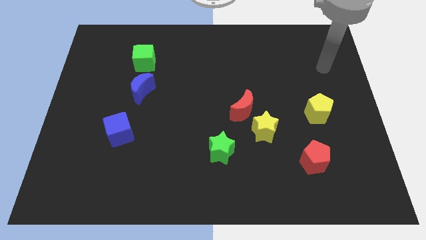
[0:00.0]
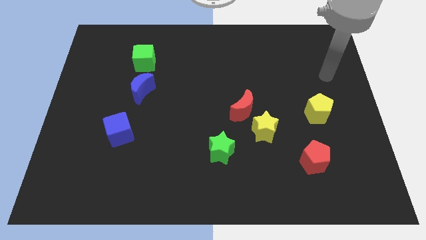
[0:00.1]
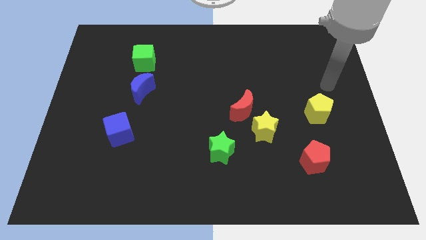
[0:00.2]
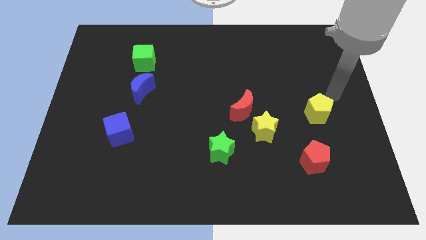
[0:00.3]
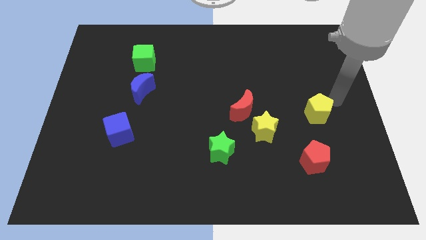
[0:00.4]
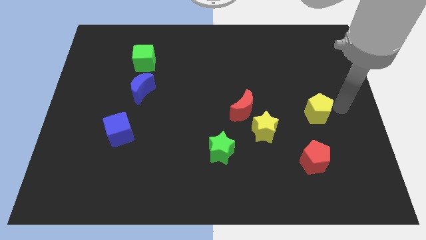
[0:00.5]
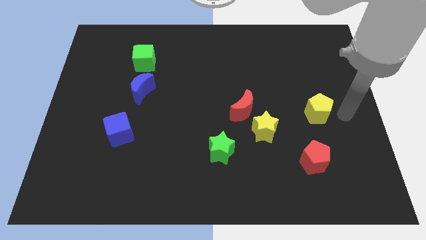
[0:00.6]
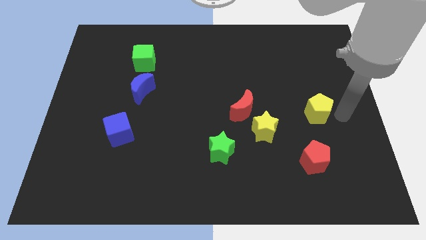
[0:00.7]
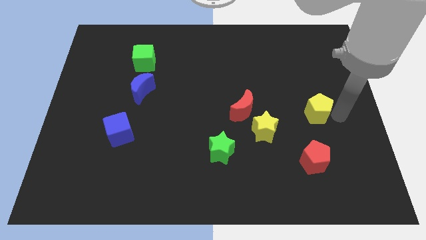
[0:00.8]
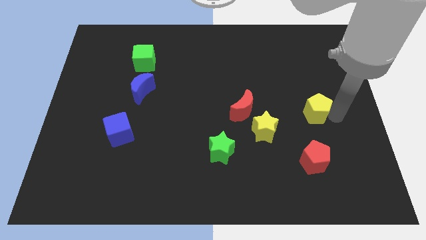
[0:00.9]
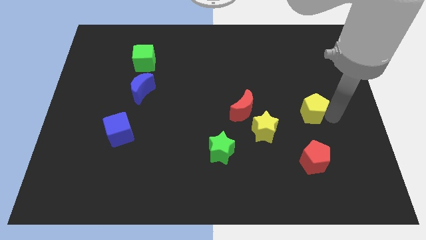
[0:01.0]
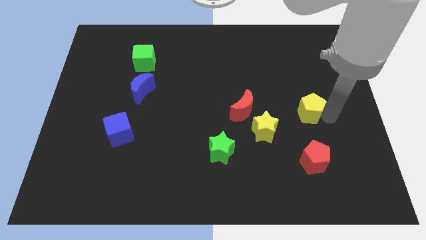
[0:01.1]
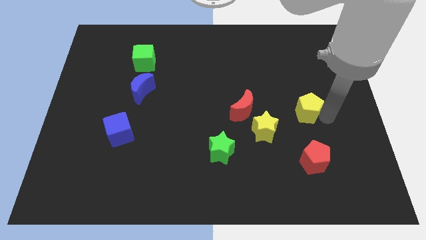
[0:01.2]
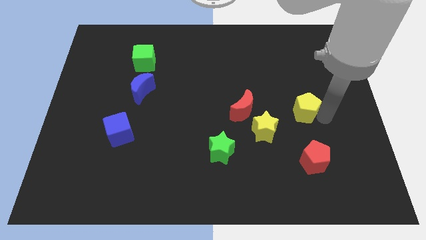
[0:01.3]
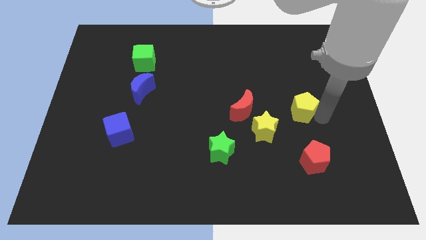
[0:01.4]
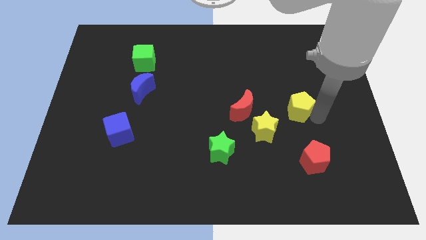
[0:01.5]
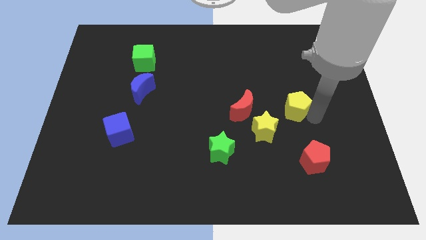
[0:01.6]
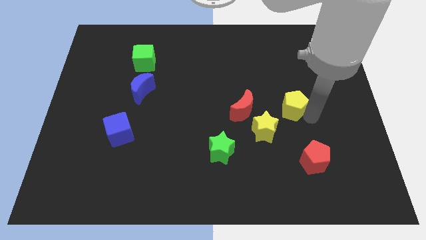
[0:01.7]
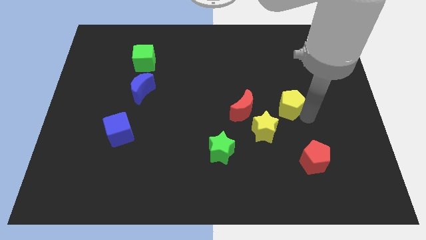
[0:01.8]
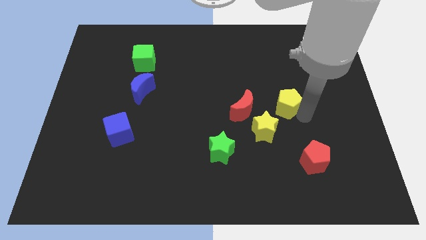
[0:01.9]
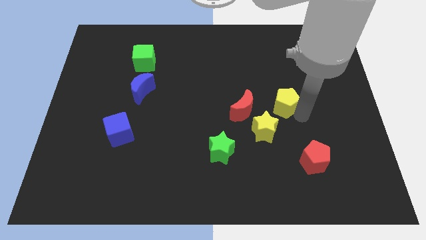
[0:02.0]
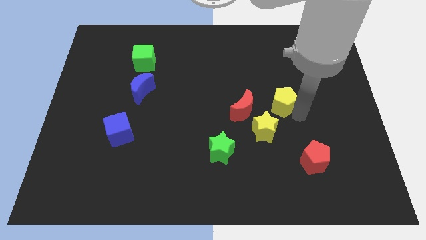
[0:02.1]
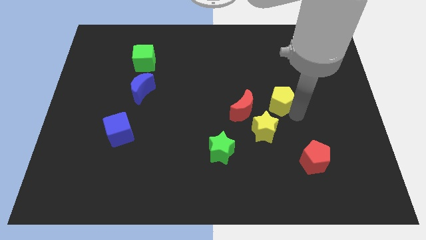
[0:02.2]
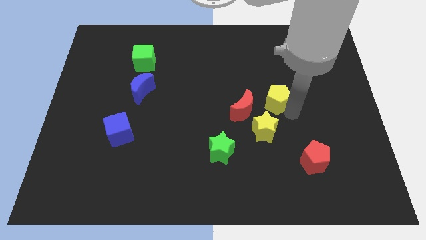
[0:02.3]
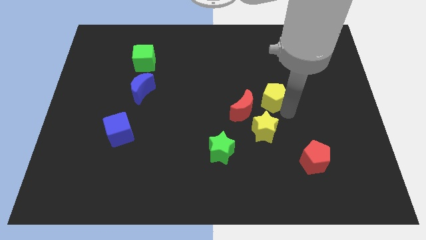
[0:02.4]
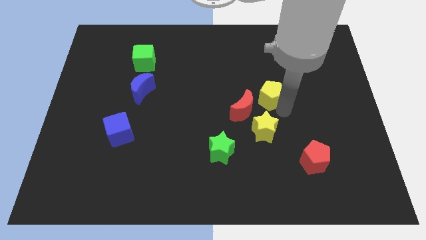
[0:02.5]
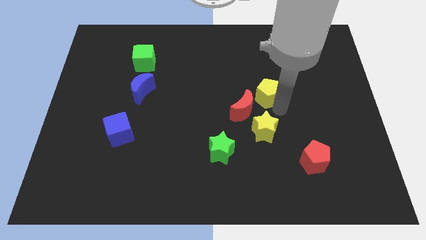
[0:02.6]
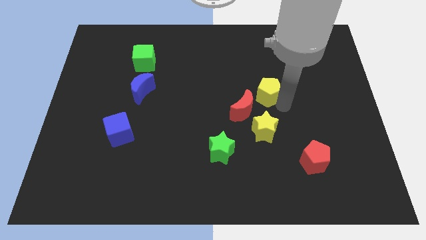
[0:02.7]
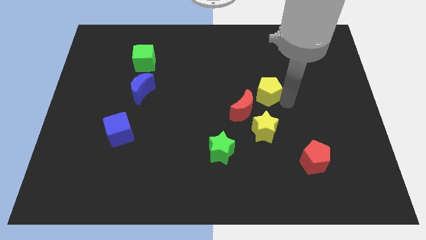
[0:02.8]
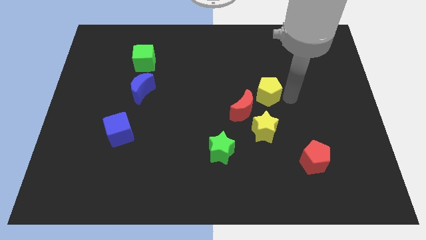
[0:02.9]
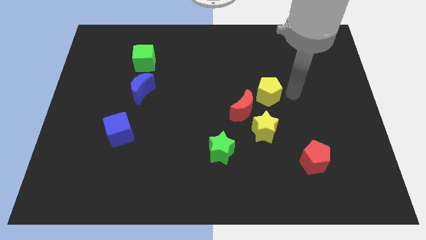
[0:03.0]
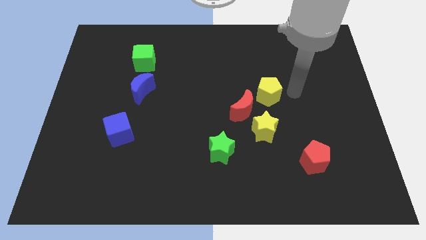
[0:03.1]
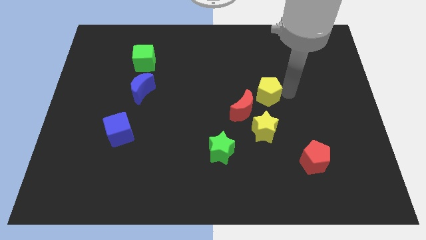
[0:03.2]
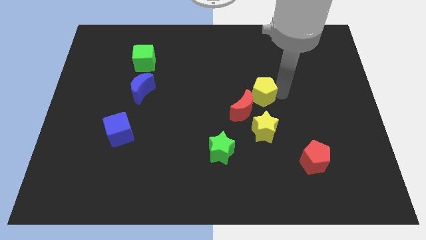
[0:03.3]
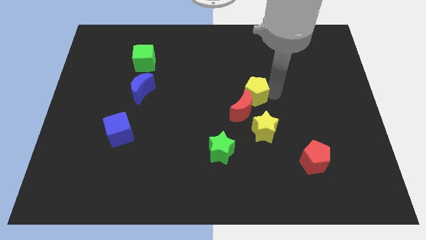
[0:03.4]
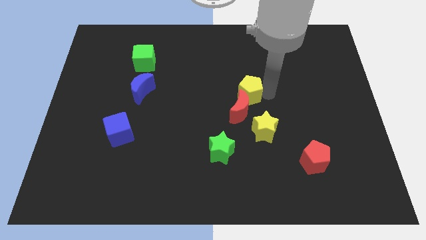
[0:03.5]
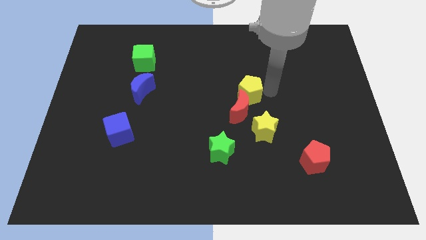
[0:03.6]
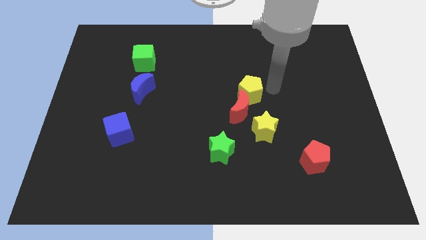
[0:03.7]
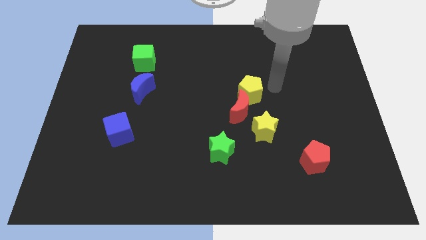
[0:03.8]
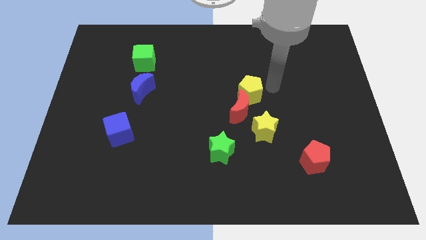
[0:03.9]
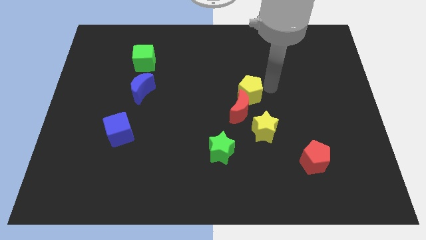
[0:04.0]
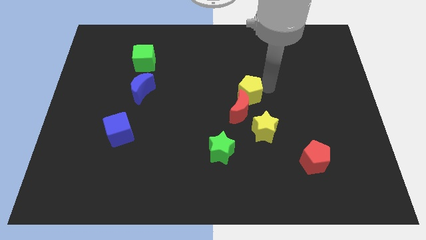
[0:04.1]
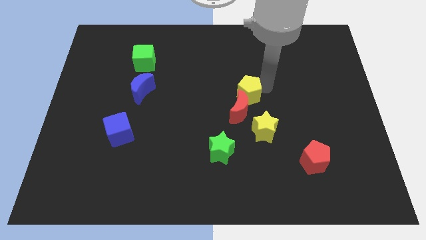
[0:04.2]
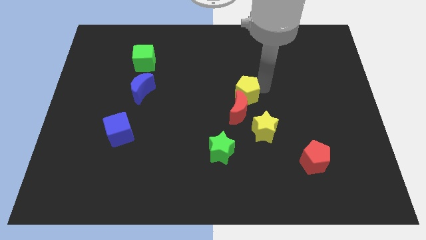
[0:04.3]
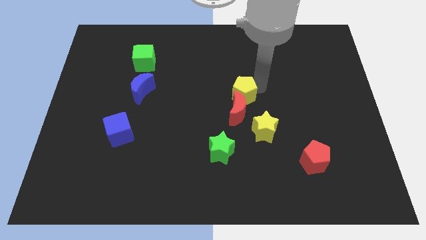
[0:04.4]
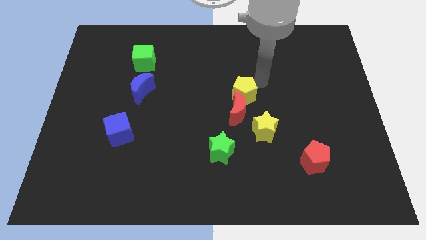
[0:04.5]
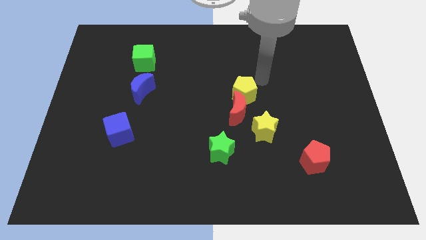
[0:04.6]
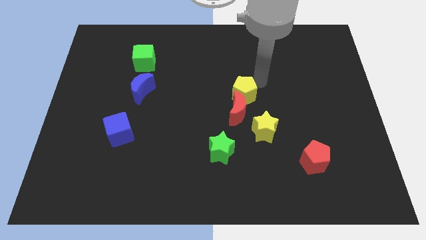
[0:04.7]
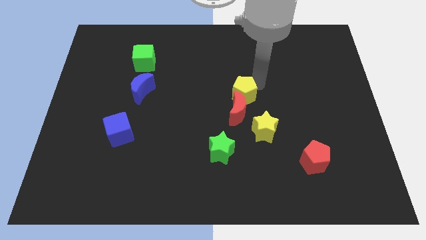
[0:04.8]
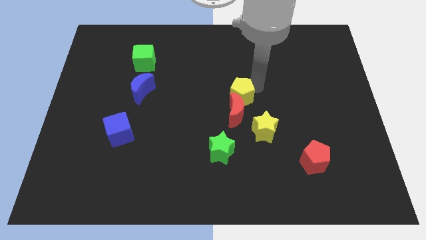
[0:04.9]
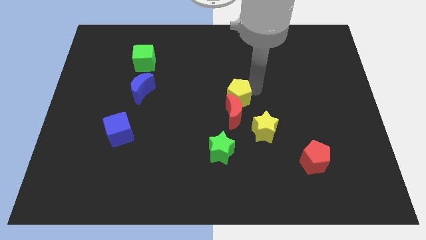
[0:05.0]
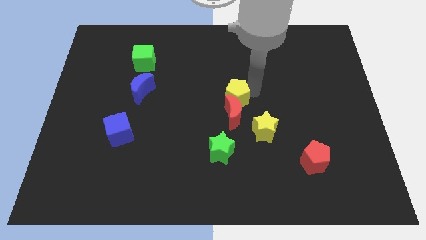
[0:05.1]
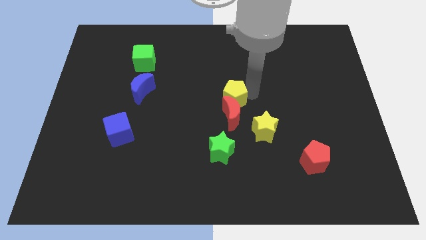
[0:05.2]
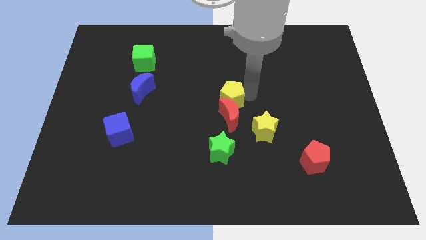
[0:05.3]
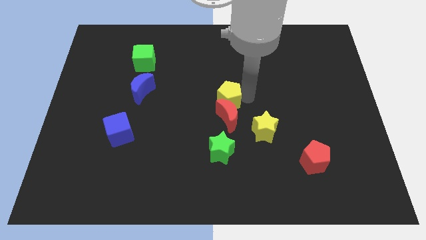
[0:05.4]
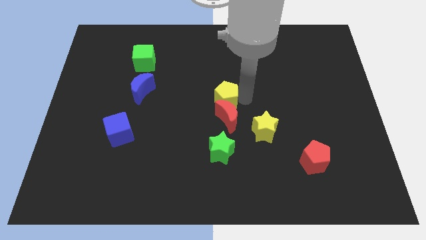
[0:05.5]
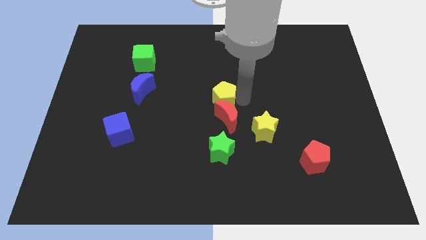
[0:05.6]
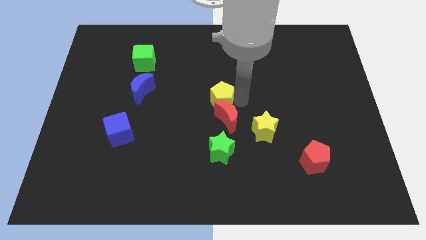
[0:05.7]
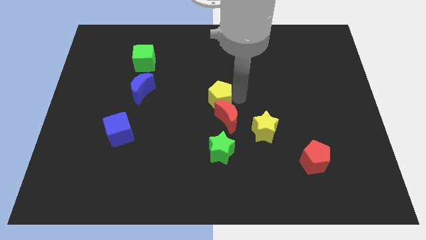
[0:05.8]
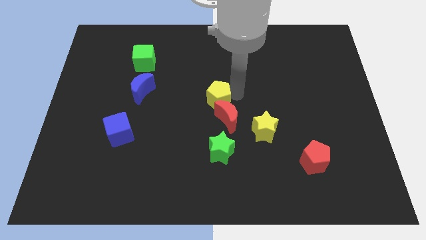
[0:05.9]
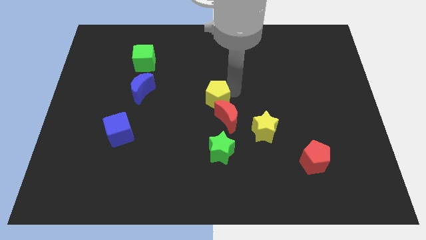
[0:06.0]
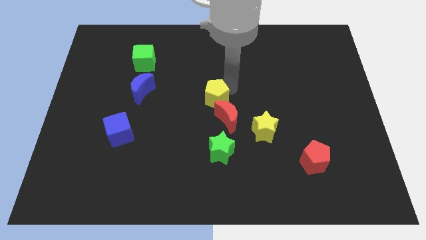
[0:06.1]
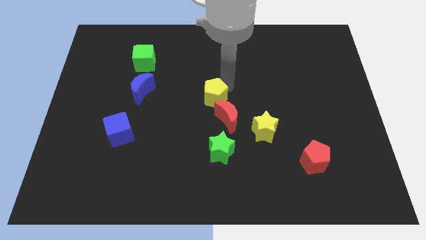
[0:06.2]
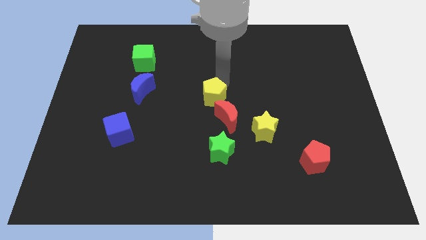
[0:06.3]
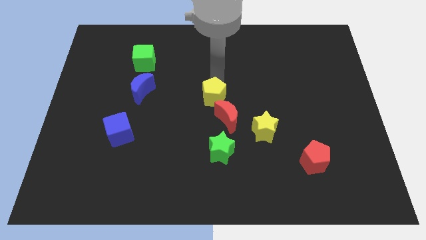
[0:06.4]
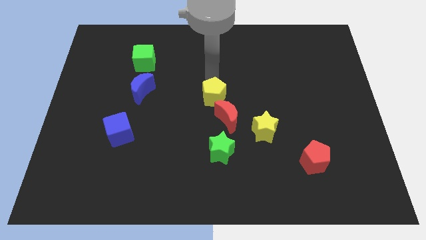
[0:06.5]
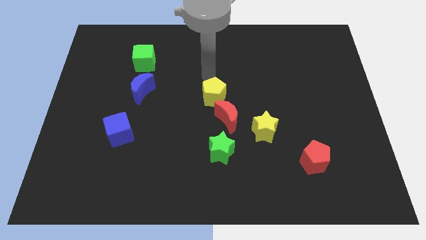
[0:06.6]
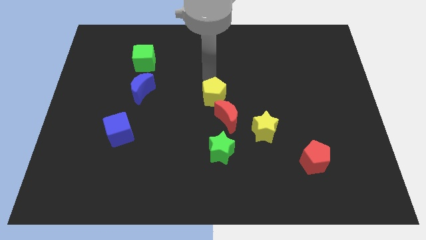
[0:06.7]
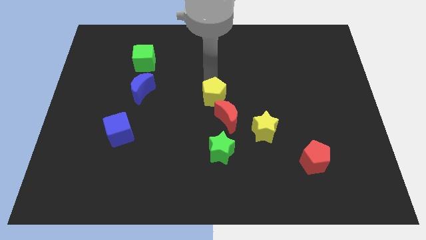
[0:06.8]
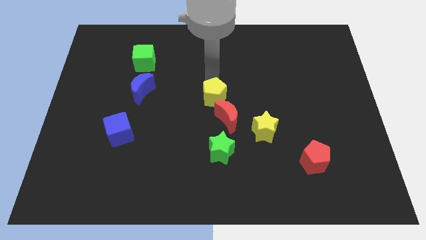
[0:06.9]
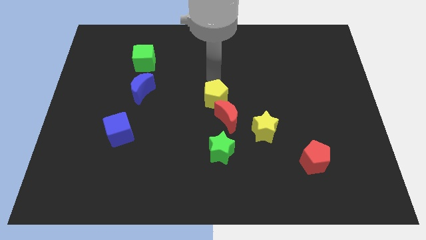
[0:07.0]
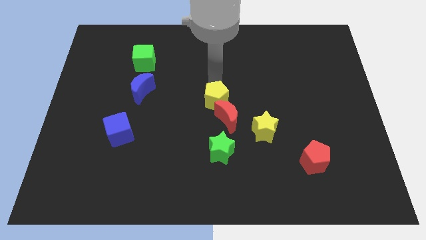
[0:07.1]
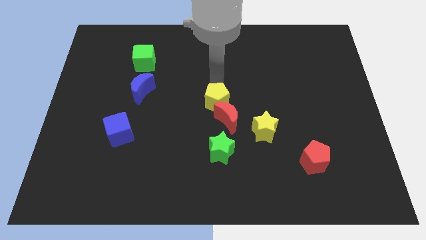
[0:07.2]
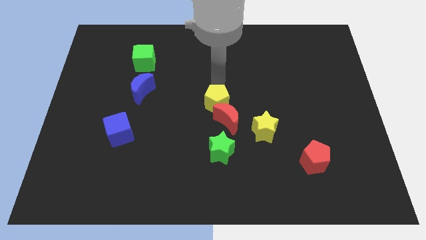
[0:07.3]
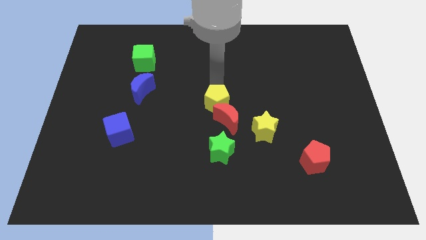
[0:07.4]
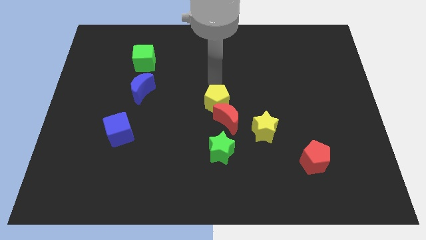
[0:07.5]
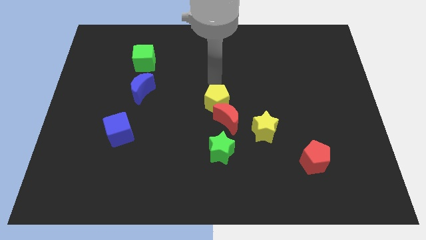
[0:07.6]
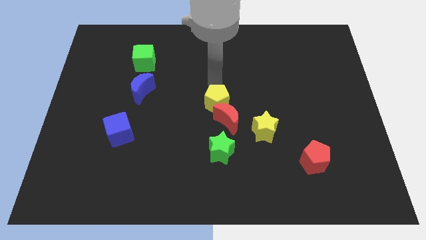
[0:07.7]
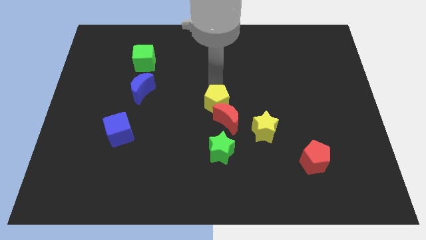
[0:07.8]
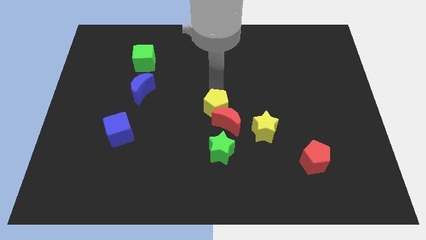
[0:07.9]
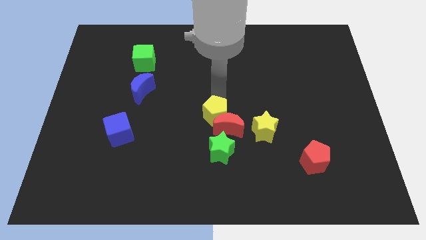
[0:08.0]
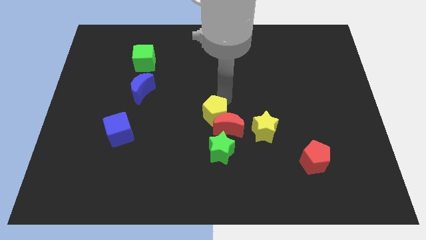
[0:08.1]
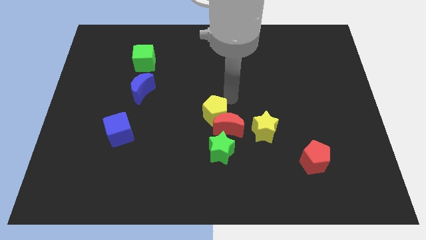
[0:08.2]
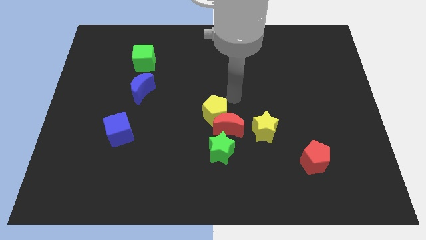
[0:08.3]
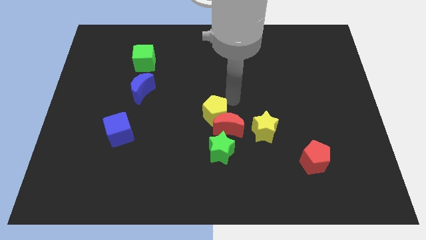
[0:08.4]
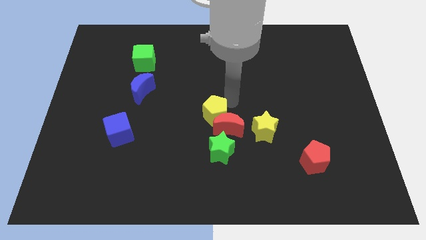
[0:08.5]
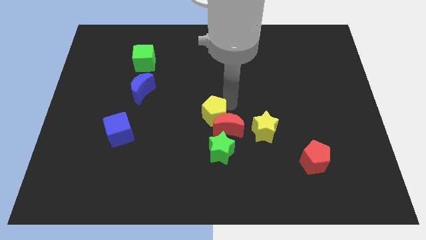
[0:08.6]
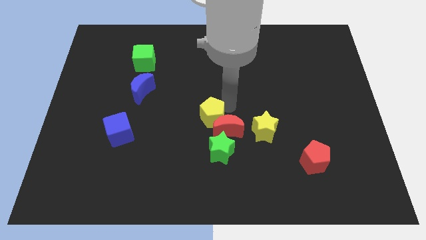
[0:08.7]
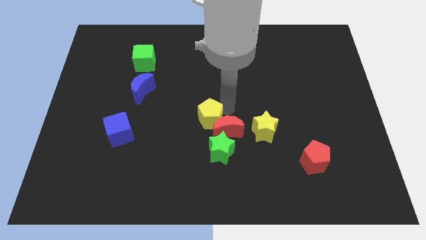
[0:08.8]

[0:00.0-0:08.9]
move the yellow pentagon to the top left side of the green star
